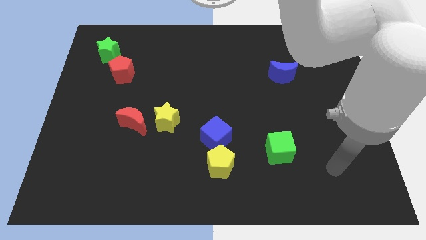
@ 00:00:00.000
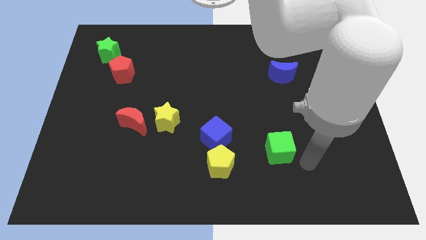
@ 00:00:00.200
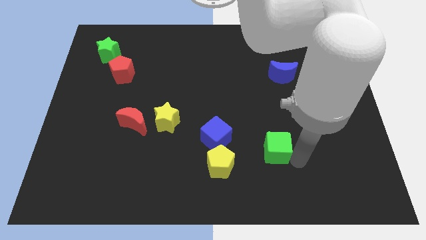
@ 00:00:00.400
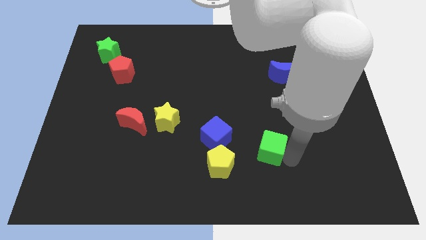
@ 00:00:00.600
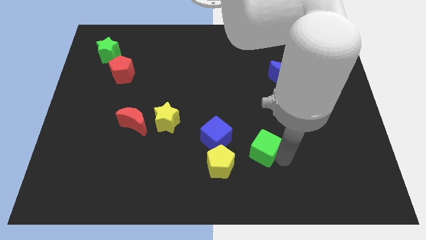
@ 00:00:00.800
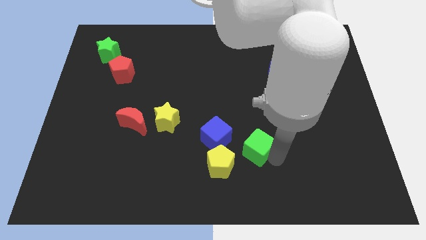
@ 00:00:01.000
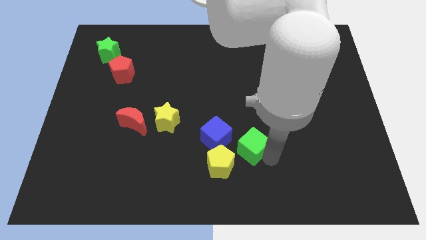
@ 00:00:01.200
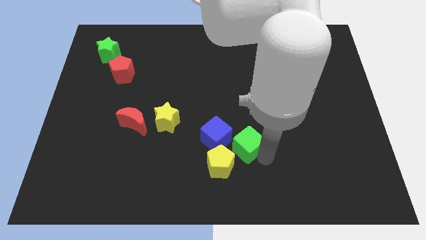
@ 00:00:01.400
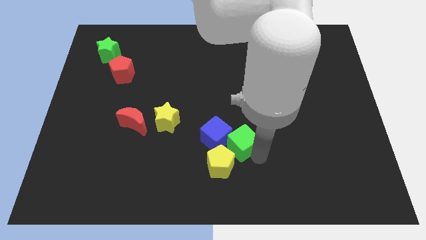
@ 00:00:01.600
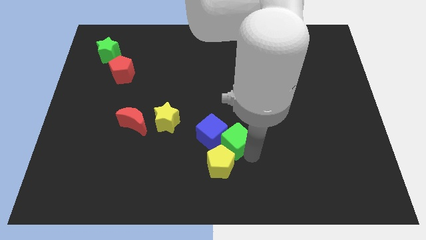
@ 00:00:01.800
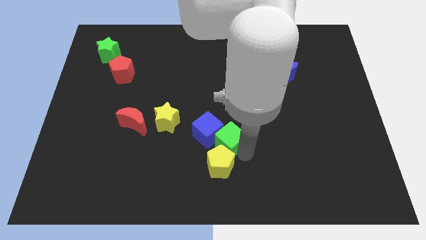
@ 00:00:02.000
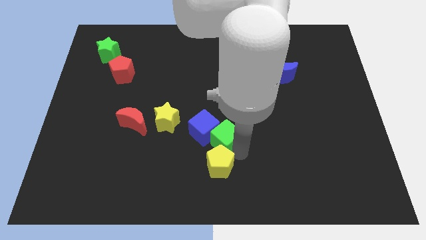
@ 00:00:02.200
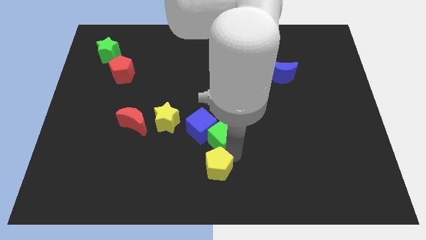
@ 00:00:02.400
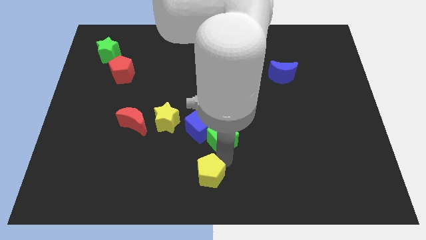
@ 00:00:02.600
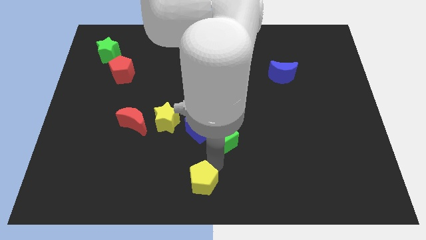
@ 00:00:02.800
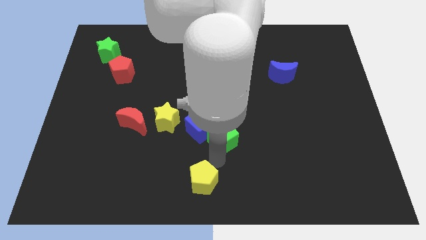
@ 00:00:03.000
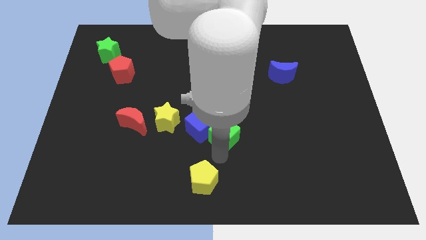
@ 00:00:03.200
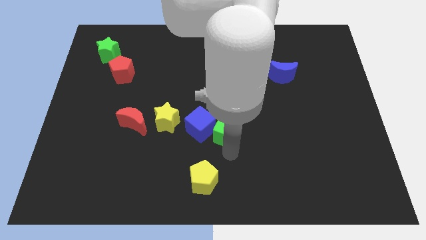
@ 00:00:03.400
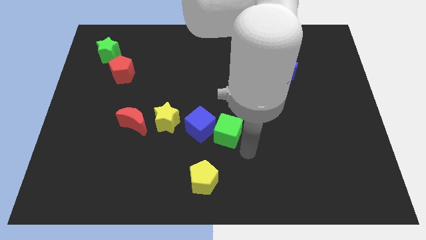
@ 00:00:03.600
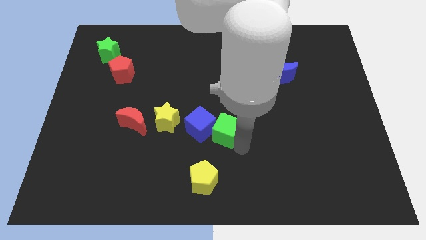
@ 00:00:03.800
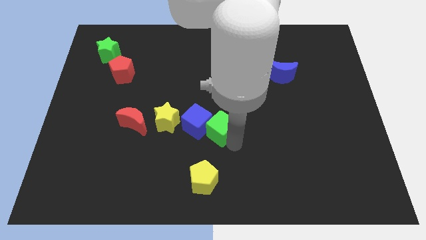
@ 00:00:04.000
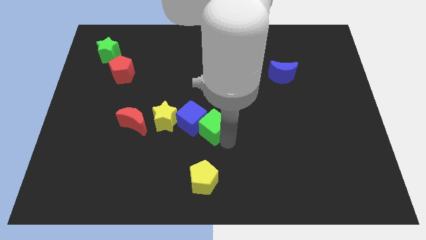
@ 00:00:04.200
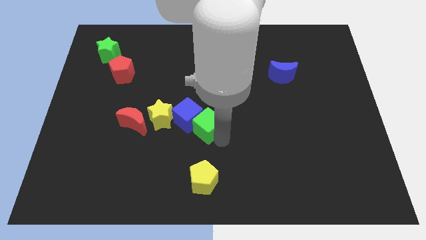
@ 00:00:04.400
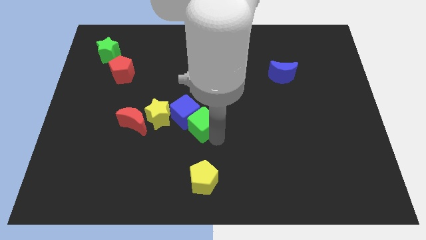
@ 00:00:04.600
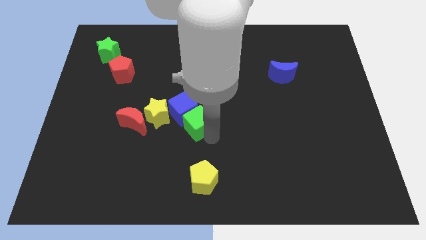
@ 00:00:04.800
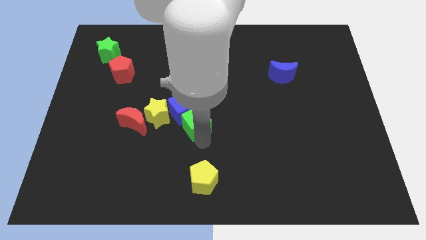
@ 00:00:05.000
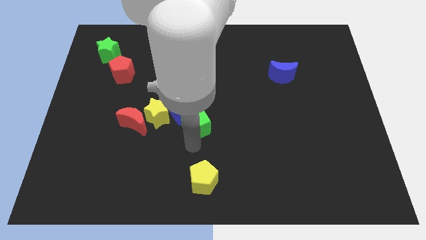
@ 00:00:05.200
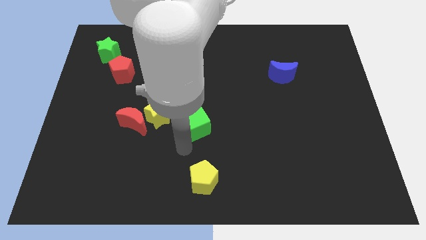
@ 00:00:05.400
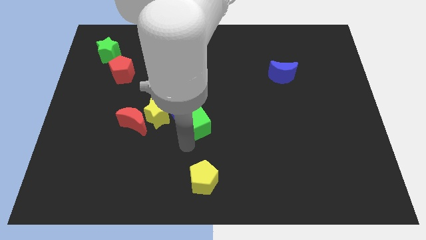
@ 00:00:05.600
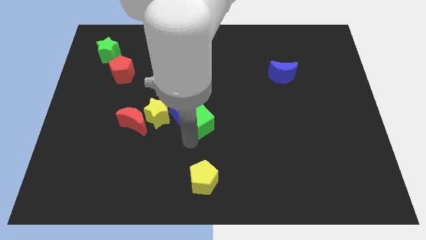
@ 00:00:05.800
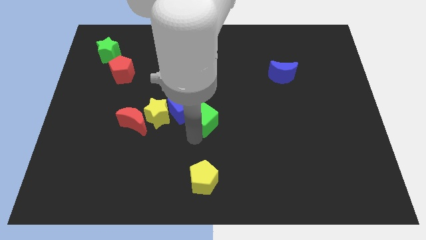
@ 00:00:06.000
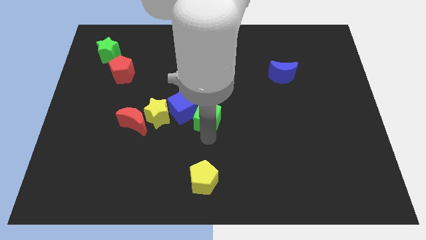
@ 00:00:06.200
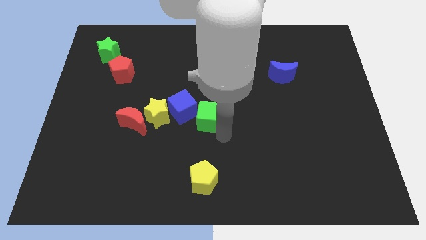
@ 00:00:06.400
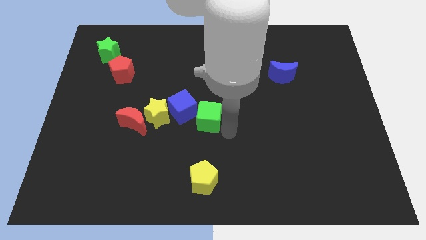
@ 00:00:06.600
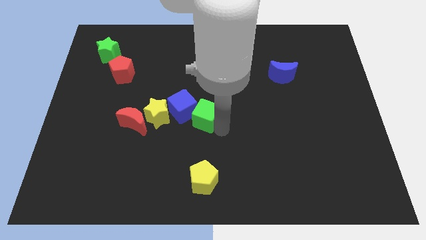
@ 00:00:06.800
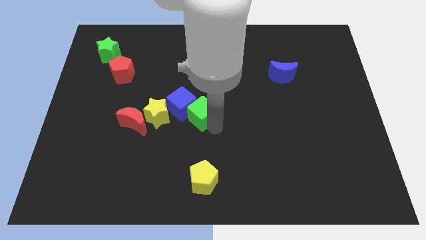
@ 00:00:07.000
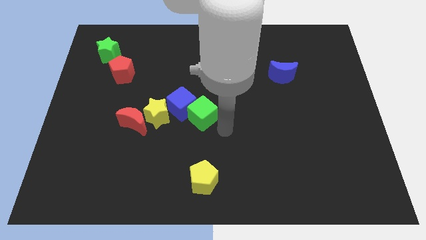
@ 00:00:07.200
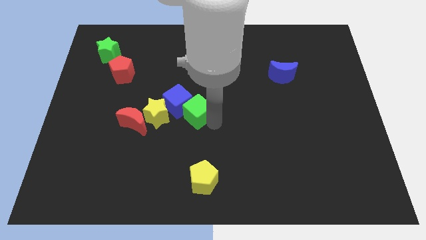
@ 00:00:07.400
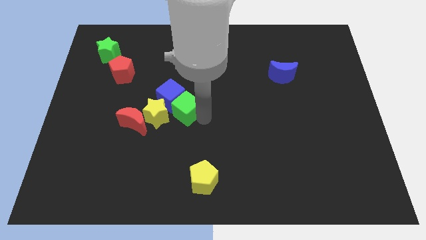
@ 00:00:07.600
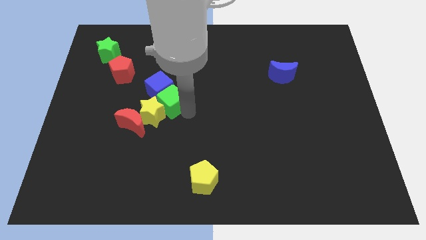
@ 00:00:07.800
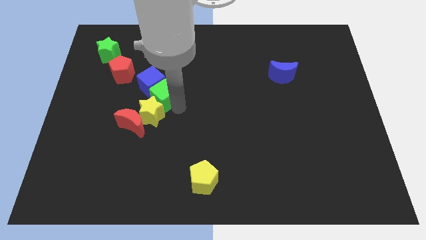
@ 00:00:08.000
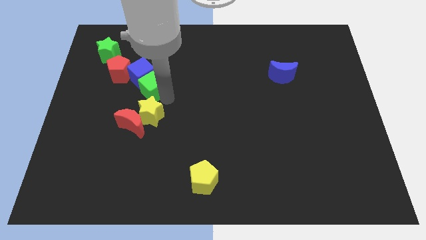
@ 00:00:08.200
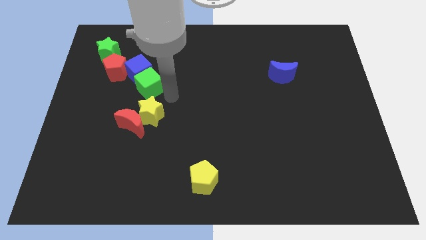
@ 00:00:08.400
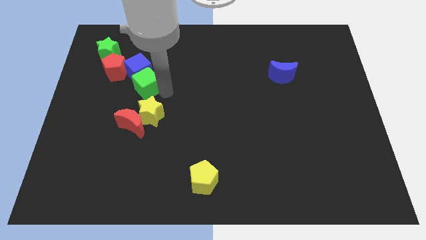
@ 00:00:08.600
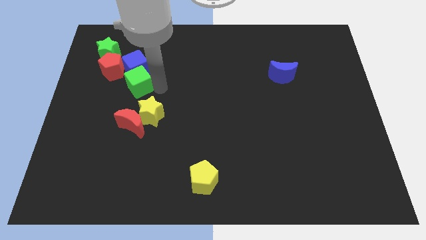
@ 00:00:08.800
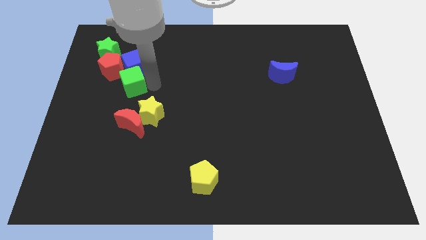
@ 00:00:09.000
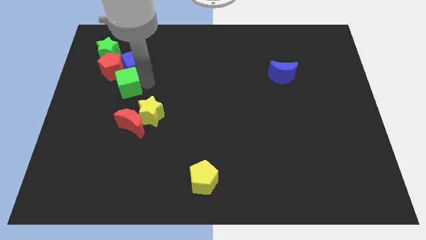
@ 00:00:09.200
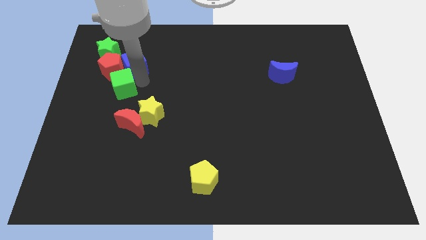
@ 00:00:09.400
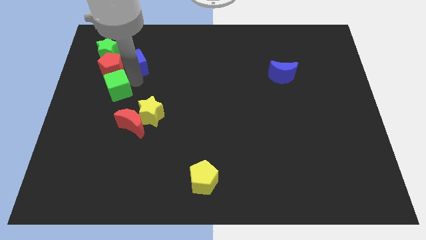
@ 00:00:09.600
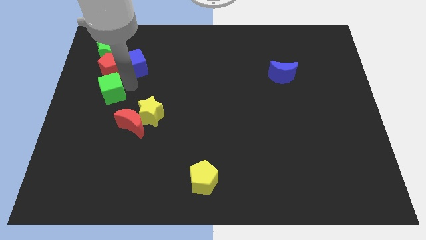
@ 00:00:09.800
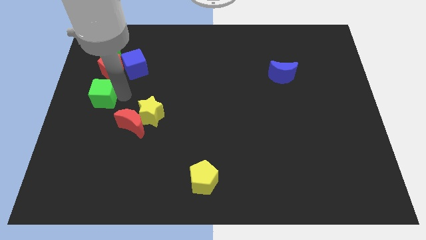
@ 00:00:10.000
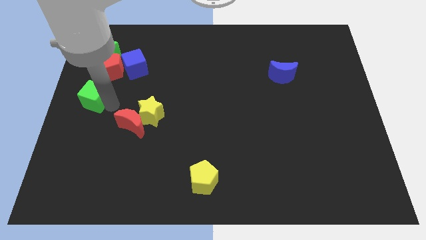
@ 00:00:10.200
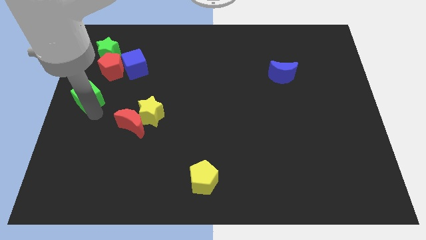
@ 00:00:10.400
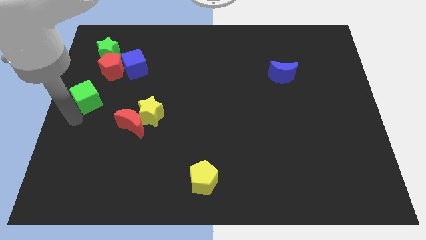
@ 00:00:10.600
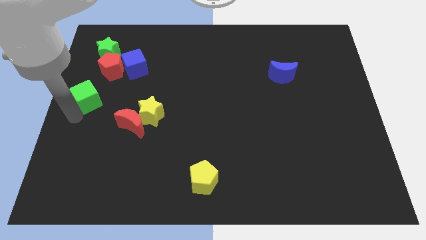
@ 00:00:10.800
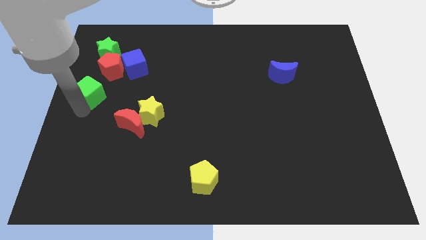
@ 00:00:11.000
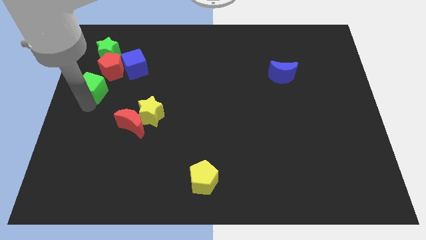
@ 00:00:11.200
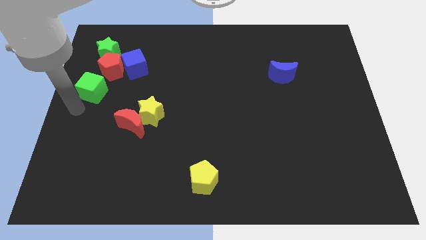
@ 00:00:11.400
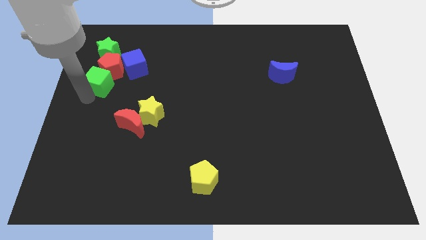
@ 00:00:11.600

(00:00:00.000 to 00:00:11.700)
push the green cube next to the red pentagon

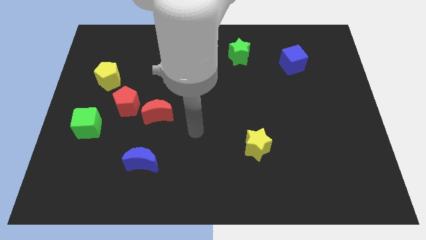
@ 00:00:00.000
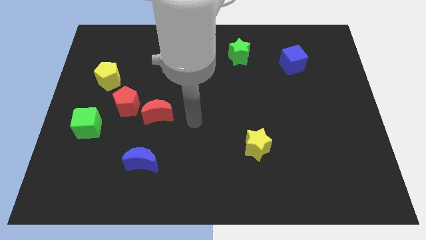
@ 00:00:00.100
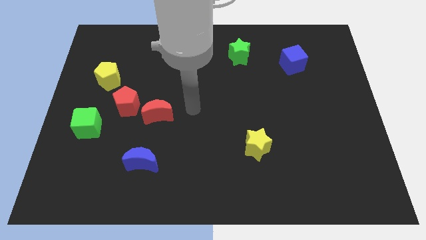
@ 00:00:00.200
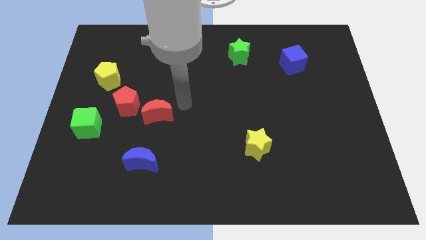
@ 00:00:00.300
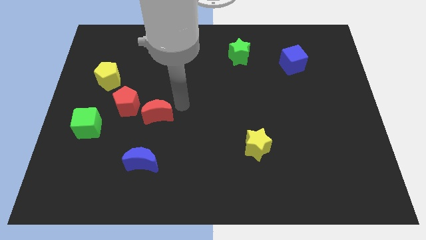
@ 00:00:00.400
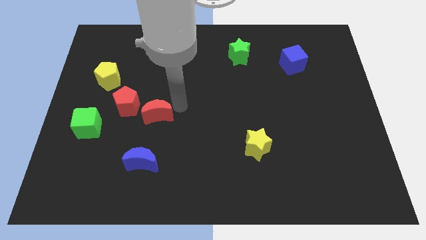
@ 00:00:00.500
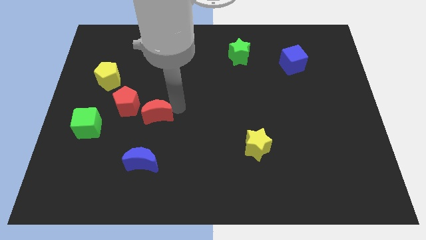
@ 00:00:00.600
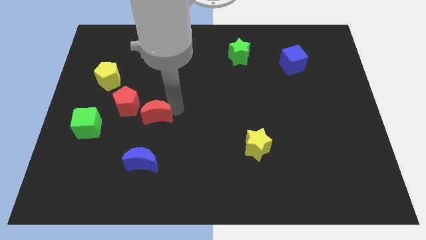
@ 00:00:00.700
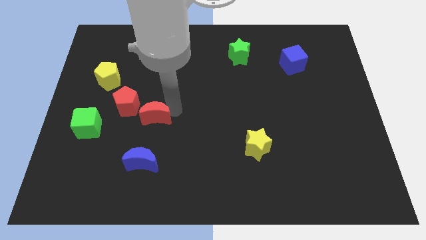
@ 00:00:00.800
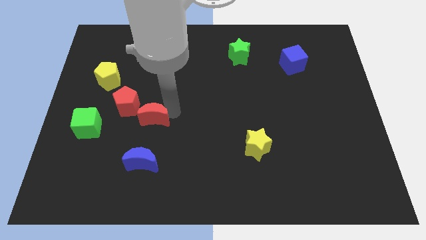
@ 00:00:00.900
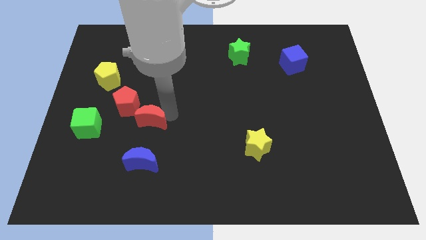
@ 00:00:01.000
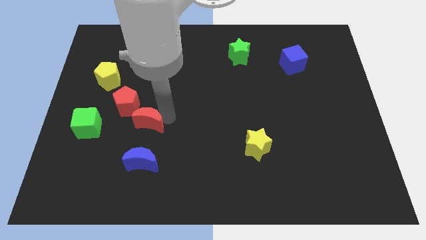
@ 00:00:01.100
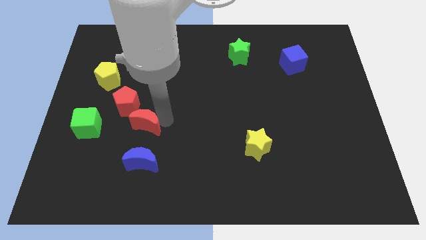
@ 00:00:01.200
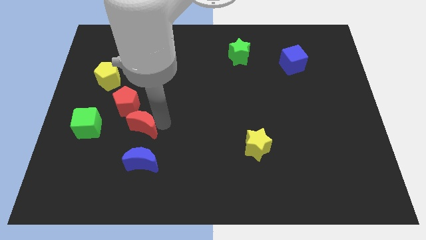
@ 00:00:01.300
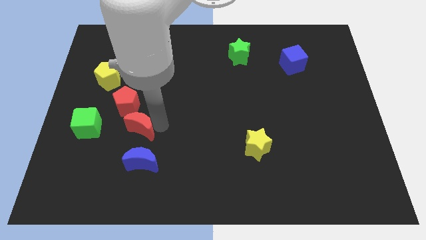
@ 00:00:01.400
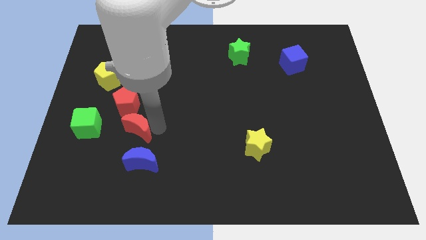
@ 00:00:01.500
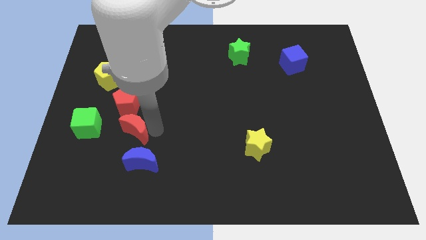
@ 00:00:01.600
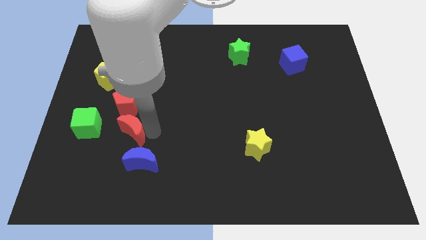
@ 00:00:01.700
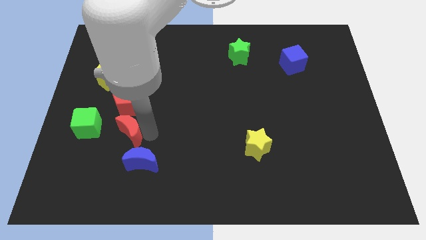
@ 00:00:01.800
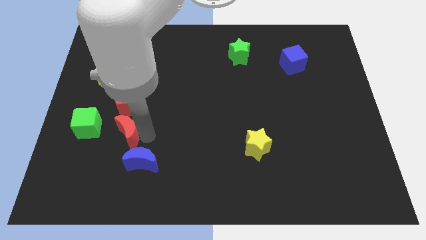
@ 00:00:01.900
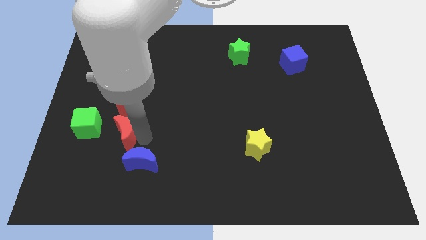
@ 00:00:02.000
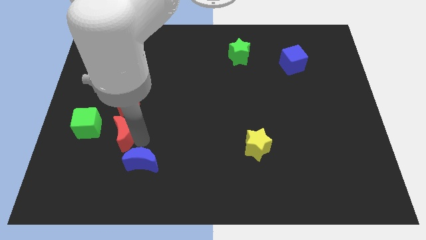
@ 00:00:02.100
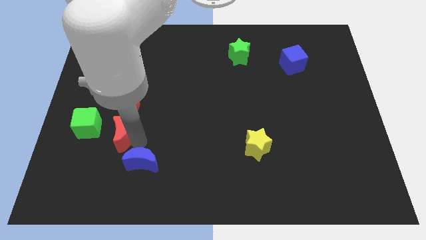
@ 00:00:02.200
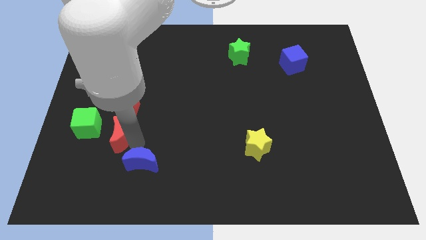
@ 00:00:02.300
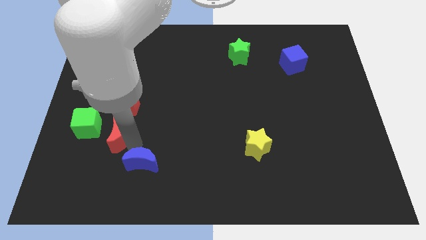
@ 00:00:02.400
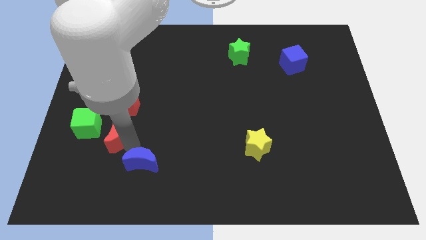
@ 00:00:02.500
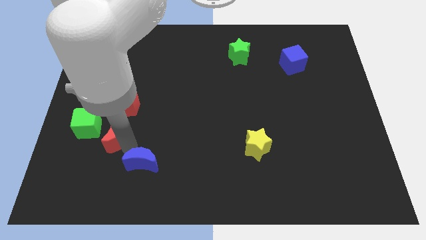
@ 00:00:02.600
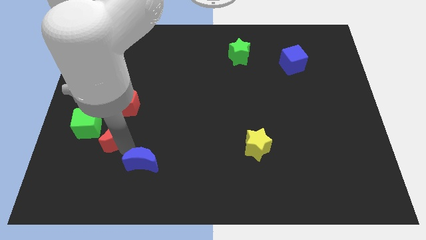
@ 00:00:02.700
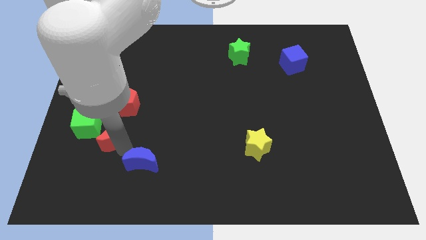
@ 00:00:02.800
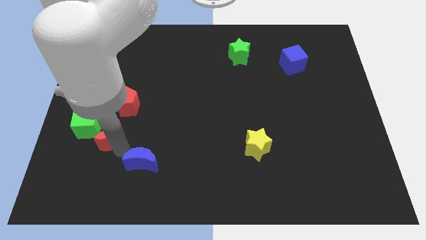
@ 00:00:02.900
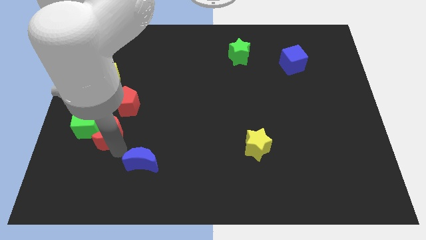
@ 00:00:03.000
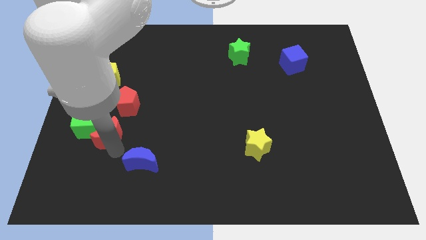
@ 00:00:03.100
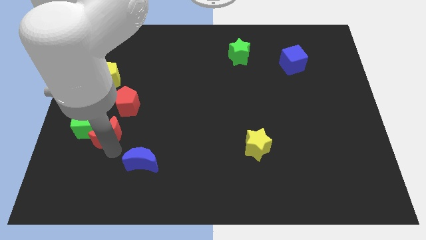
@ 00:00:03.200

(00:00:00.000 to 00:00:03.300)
push the red moon to the green cube
